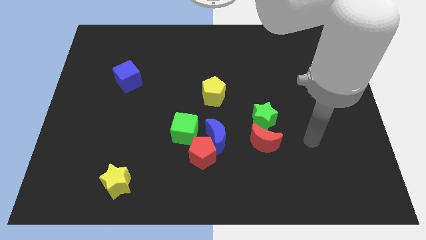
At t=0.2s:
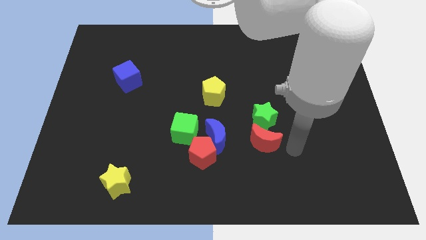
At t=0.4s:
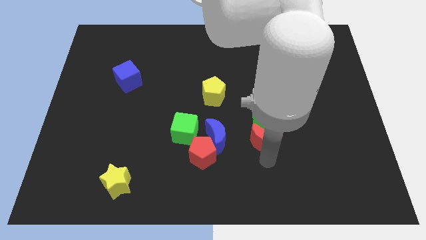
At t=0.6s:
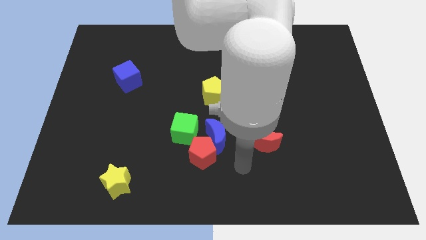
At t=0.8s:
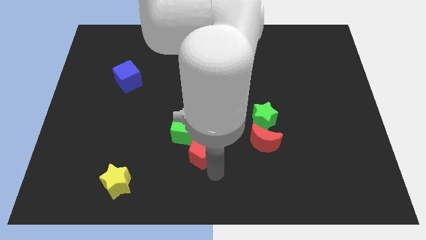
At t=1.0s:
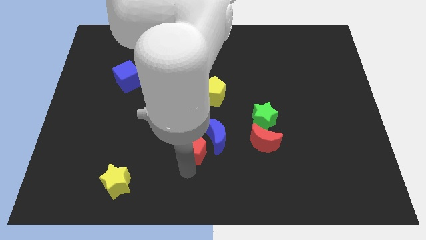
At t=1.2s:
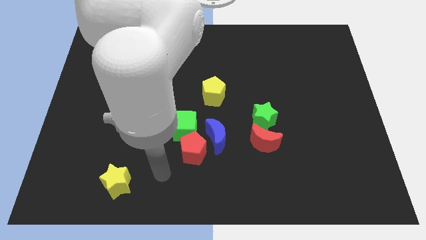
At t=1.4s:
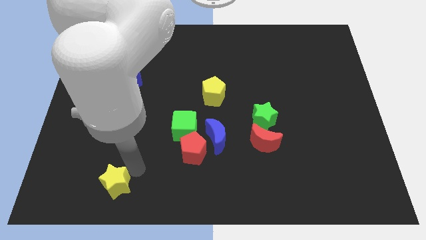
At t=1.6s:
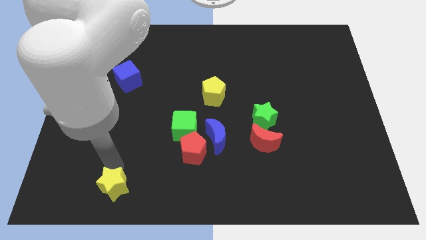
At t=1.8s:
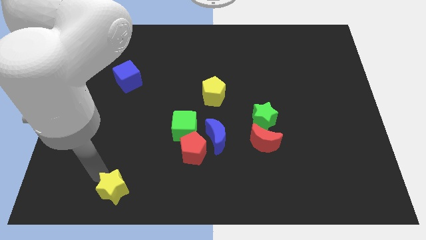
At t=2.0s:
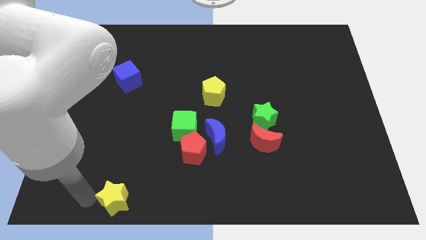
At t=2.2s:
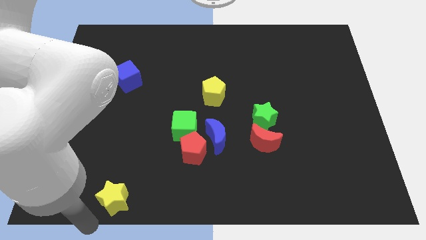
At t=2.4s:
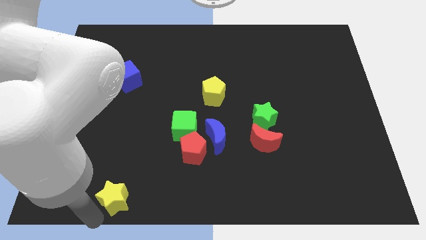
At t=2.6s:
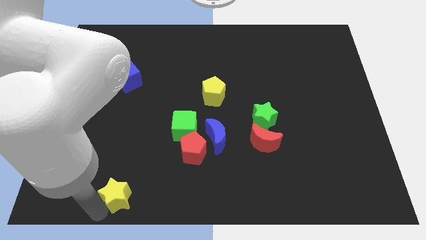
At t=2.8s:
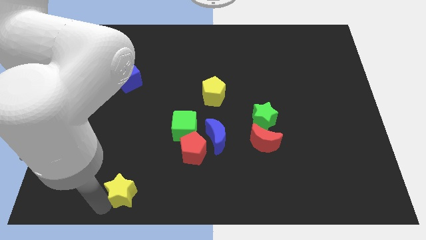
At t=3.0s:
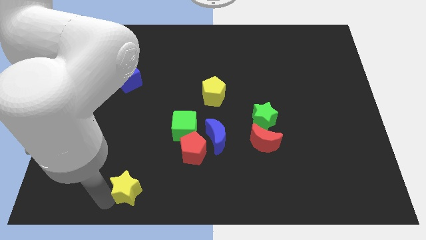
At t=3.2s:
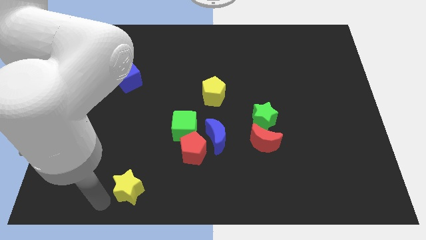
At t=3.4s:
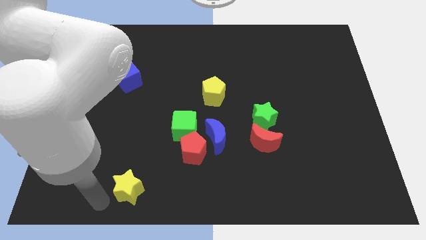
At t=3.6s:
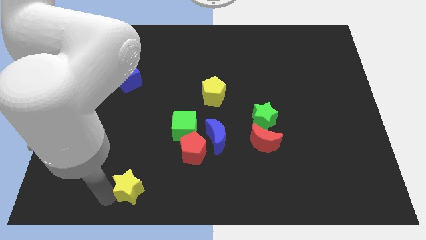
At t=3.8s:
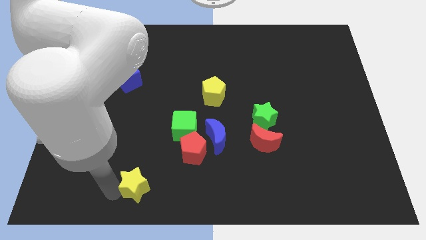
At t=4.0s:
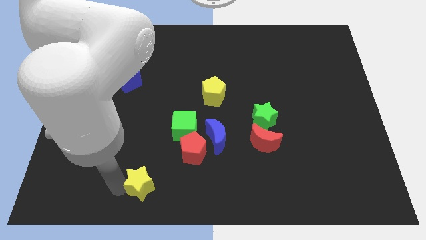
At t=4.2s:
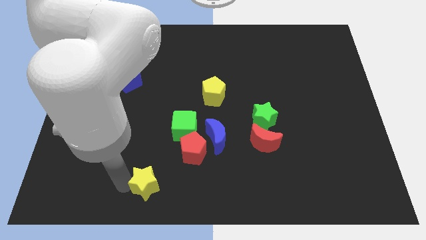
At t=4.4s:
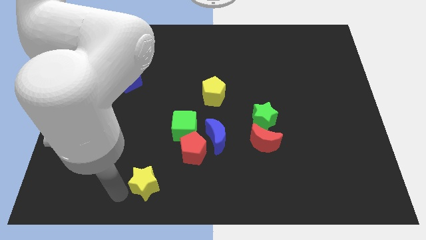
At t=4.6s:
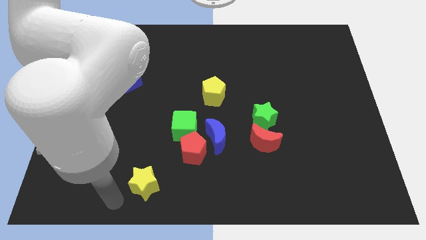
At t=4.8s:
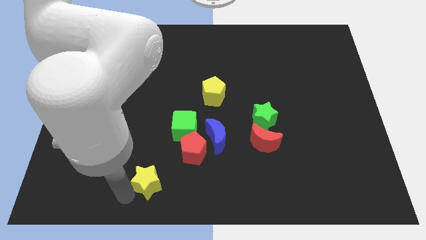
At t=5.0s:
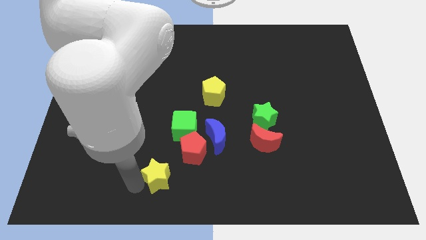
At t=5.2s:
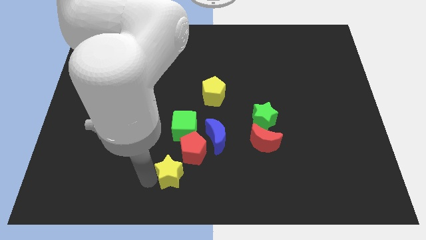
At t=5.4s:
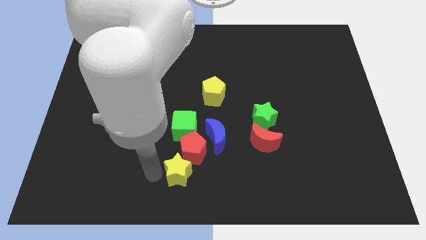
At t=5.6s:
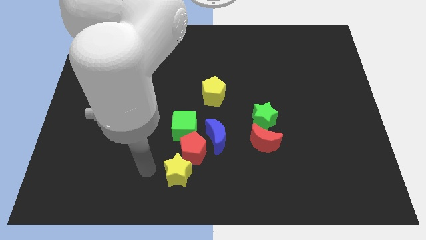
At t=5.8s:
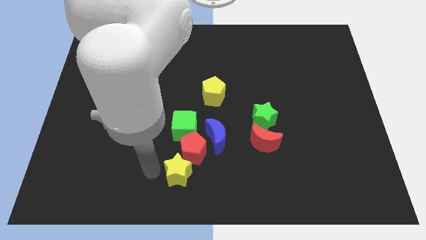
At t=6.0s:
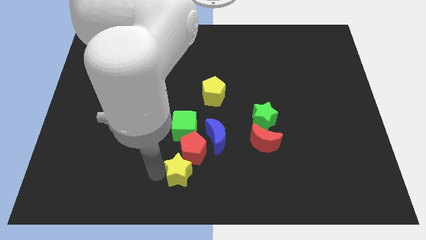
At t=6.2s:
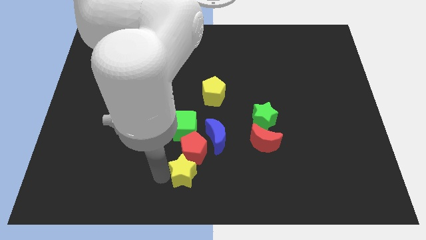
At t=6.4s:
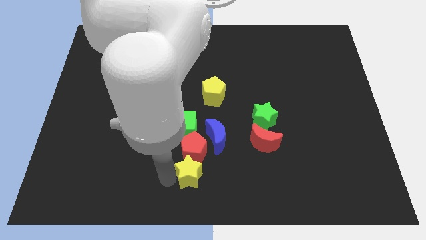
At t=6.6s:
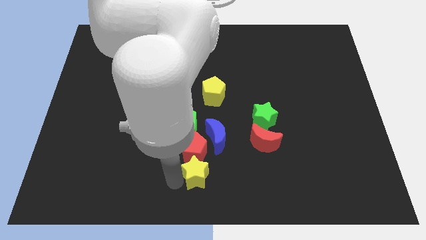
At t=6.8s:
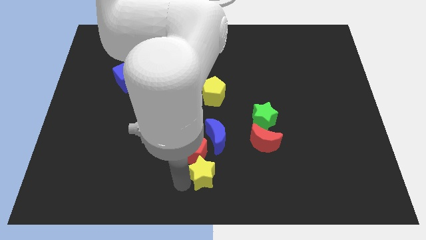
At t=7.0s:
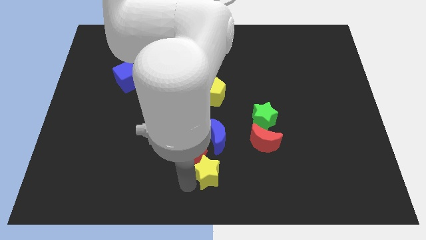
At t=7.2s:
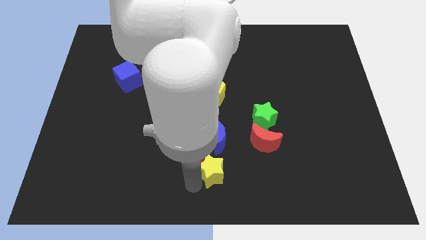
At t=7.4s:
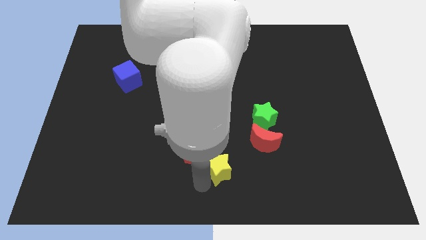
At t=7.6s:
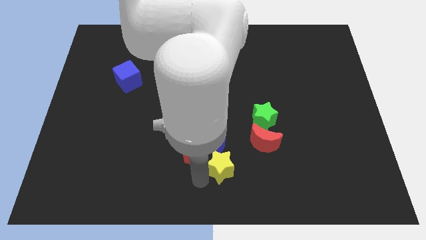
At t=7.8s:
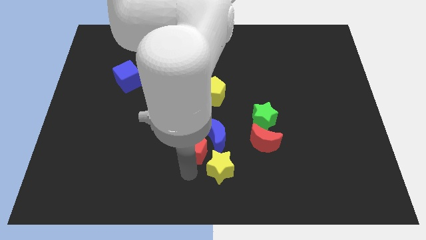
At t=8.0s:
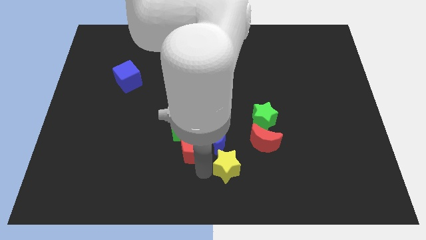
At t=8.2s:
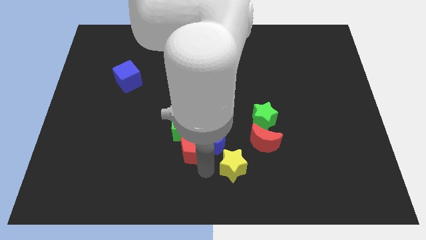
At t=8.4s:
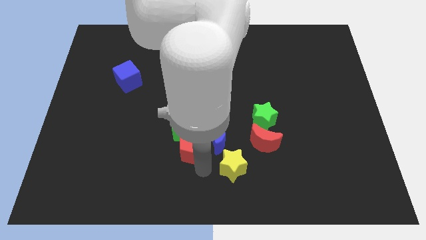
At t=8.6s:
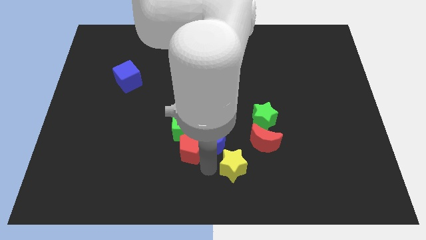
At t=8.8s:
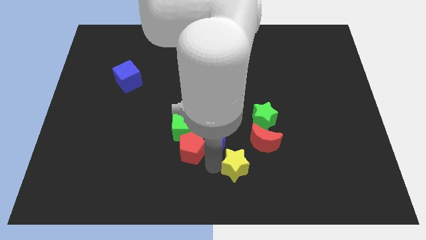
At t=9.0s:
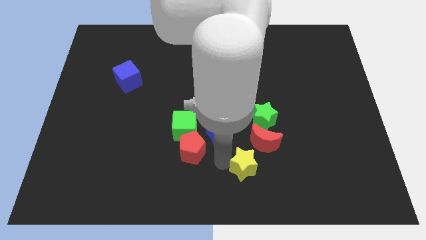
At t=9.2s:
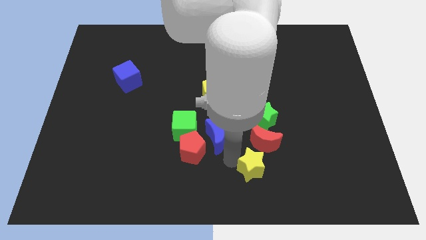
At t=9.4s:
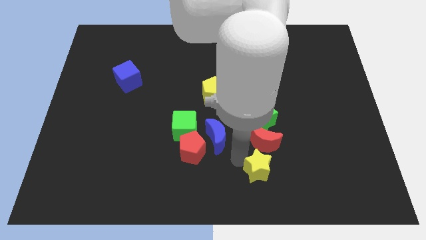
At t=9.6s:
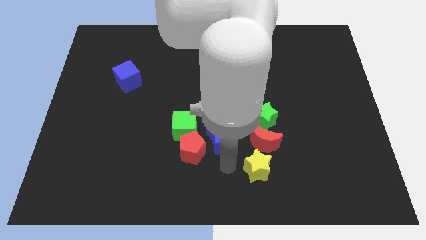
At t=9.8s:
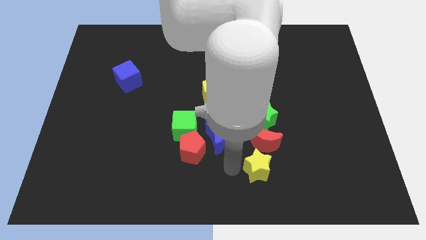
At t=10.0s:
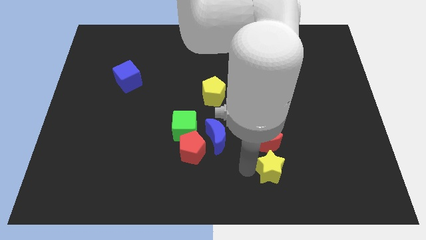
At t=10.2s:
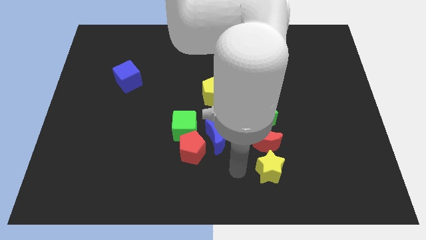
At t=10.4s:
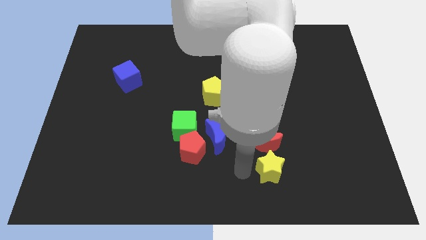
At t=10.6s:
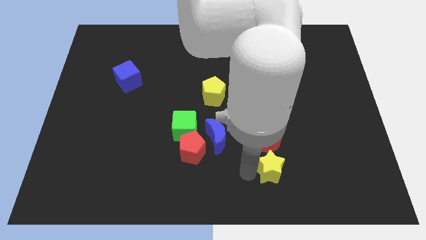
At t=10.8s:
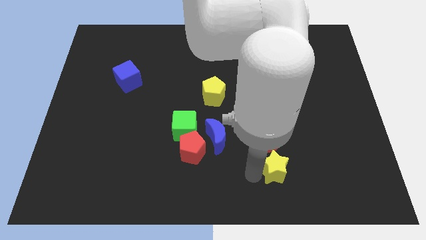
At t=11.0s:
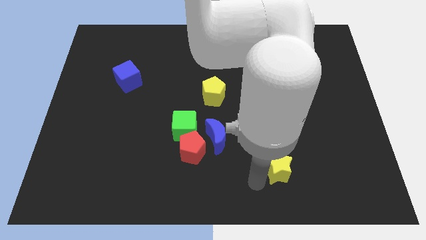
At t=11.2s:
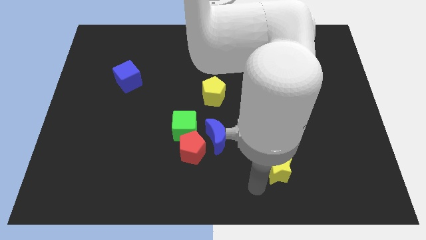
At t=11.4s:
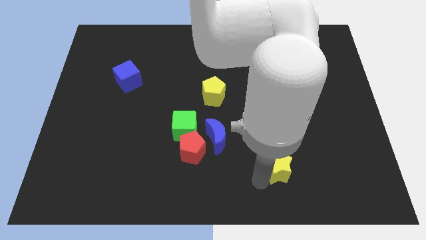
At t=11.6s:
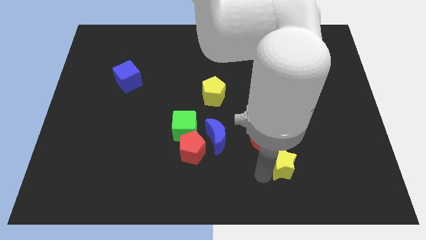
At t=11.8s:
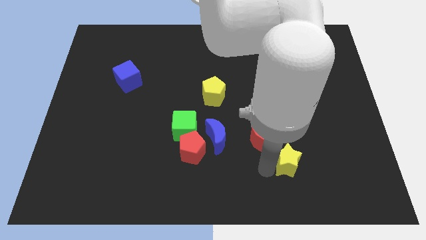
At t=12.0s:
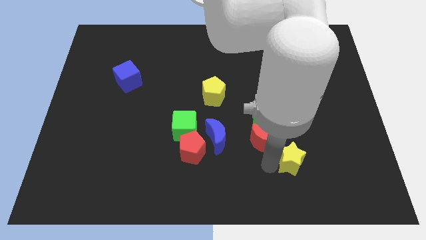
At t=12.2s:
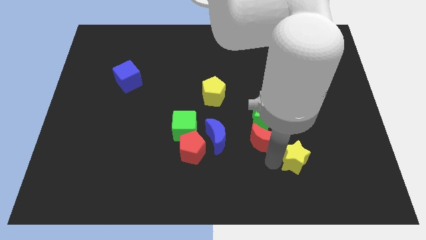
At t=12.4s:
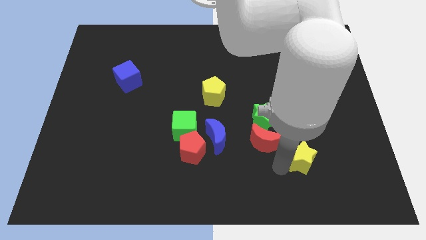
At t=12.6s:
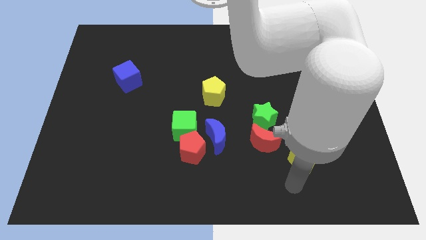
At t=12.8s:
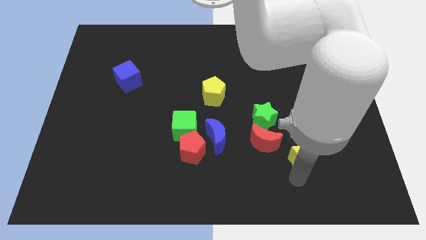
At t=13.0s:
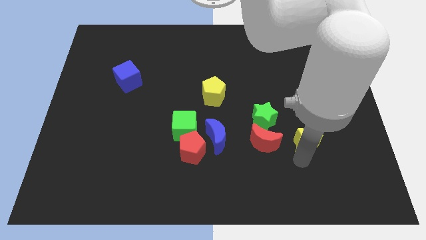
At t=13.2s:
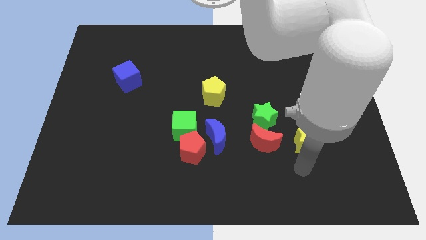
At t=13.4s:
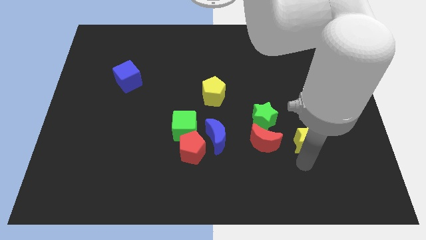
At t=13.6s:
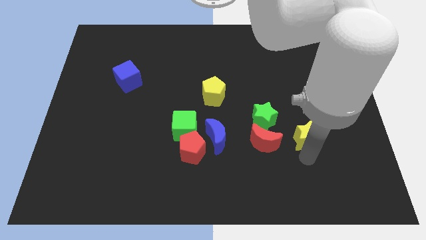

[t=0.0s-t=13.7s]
put the yellow star to the right side of the green star

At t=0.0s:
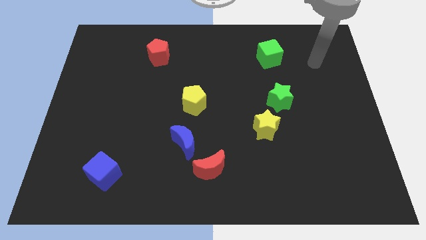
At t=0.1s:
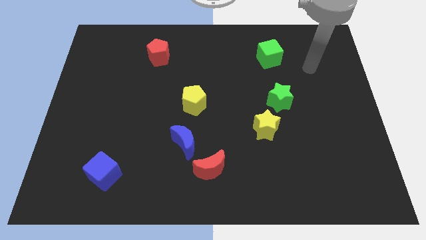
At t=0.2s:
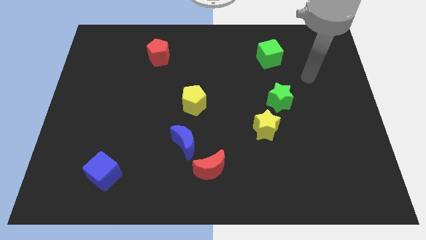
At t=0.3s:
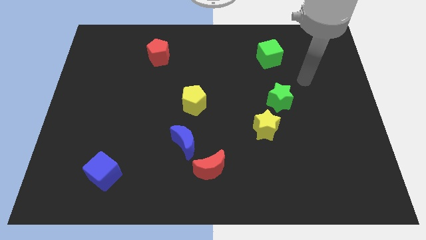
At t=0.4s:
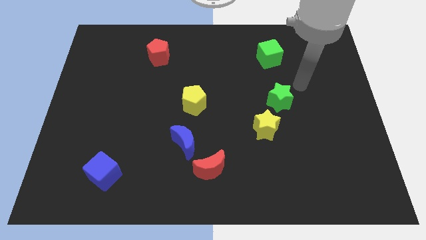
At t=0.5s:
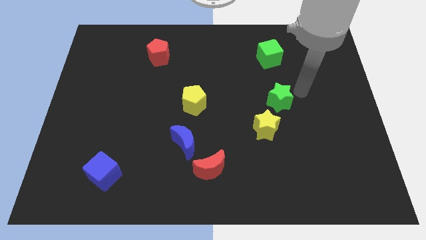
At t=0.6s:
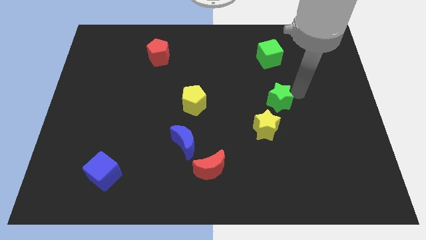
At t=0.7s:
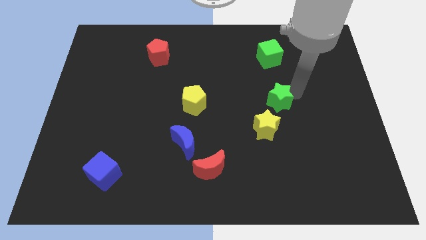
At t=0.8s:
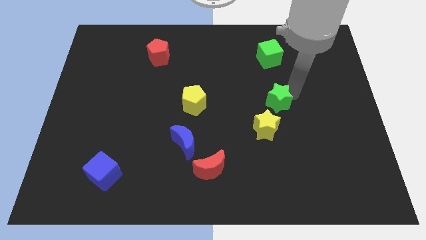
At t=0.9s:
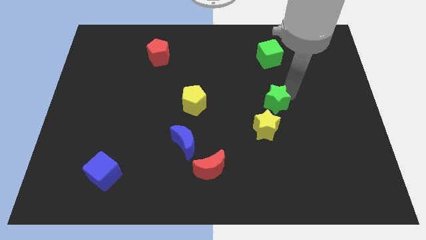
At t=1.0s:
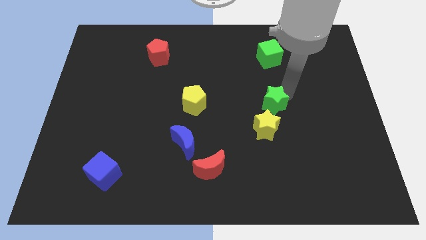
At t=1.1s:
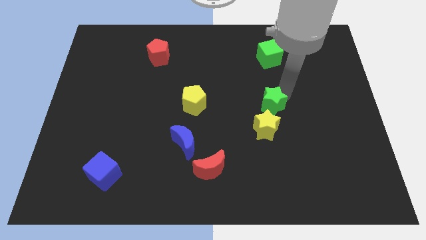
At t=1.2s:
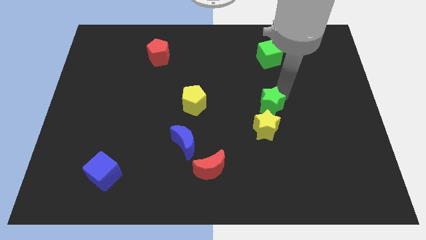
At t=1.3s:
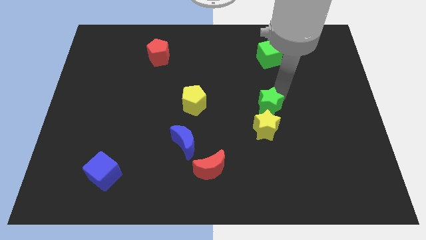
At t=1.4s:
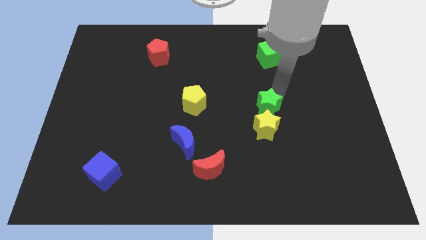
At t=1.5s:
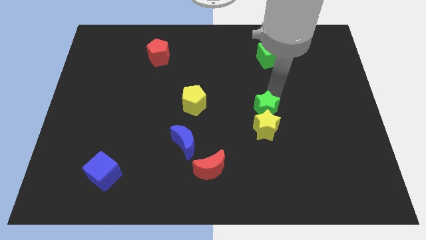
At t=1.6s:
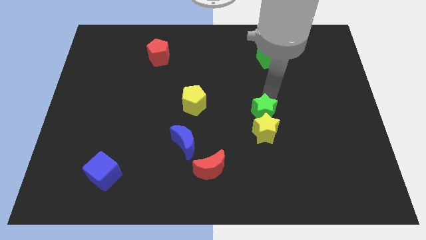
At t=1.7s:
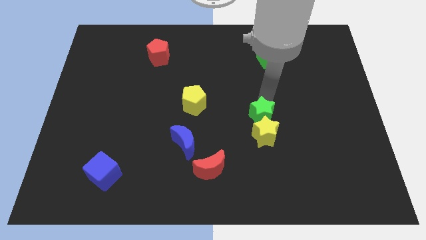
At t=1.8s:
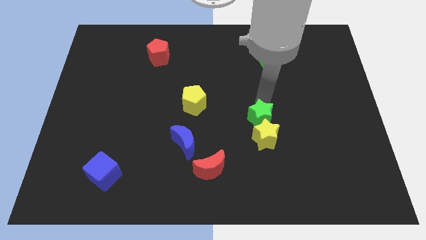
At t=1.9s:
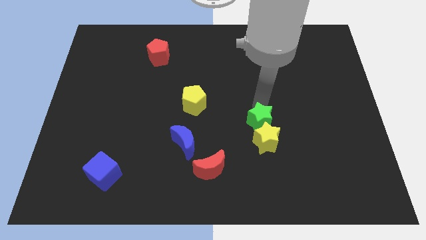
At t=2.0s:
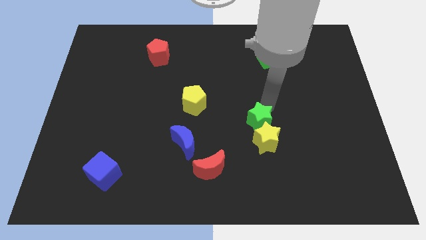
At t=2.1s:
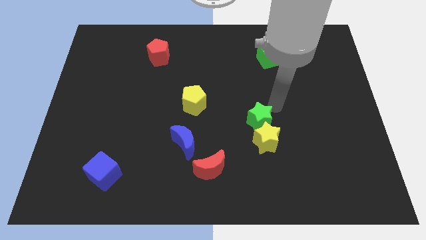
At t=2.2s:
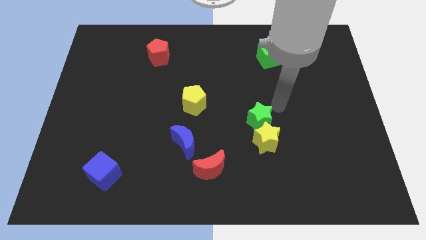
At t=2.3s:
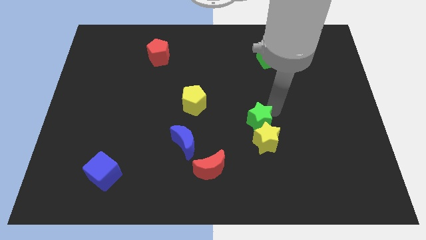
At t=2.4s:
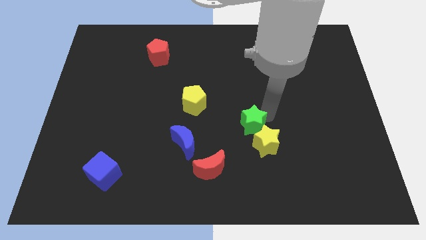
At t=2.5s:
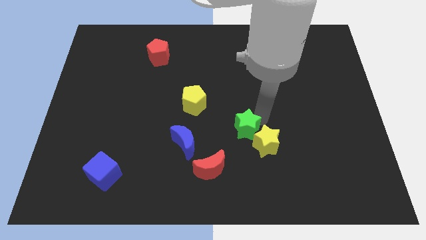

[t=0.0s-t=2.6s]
slide the green star to the right side of the blue moon
